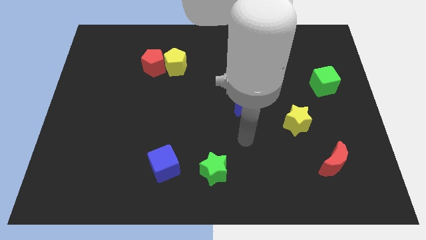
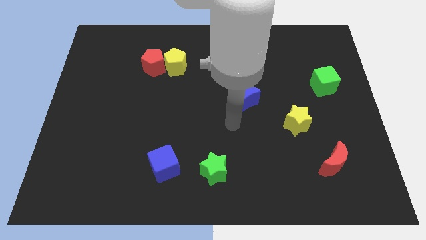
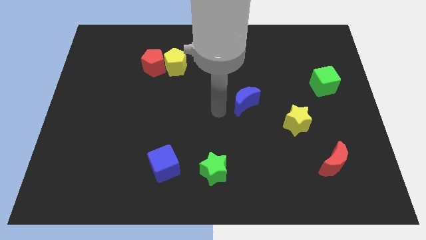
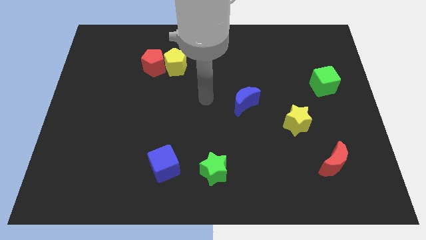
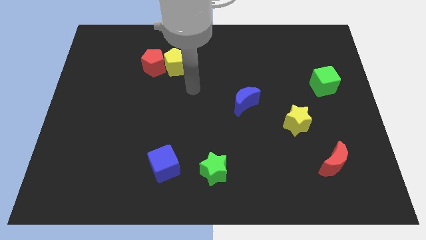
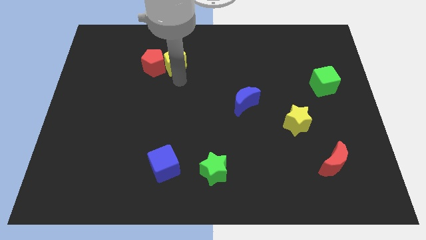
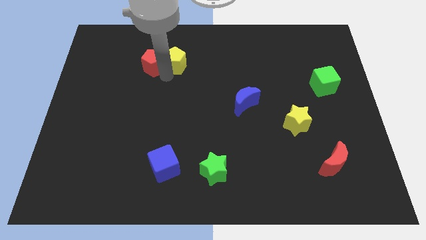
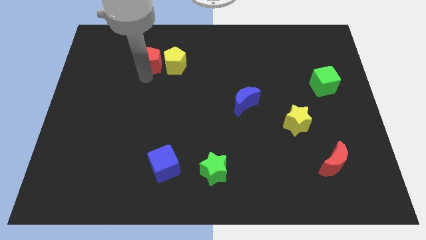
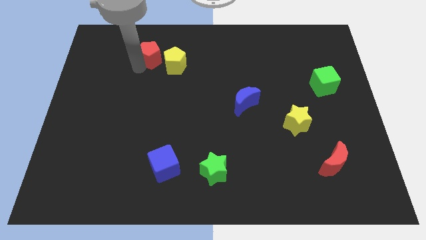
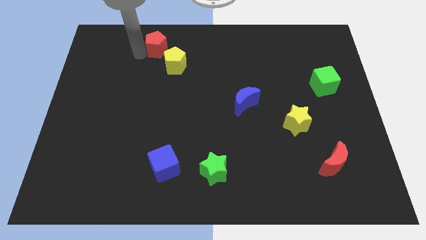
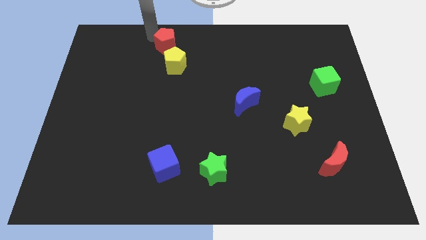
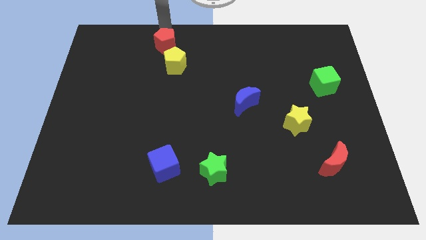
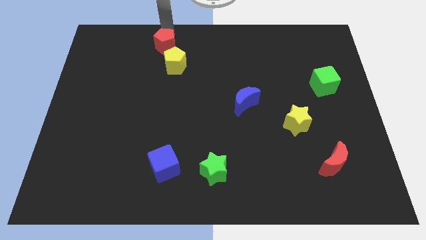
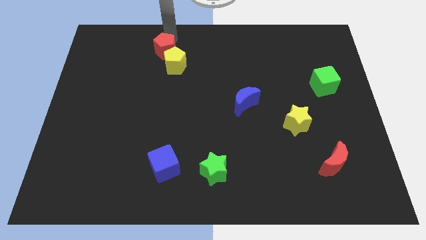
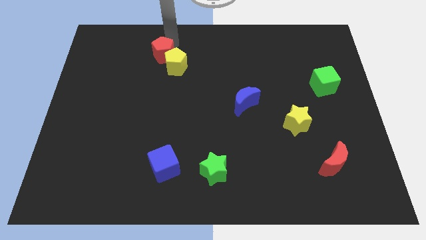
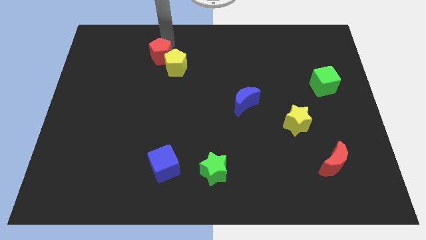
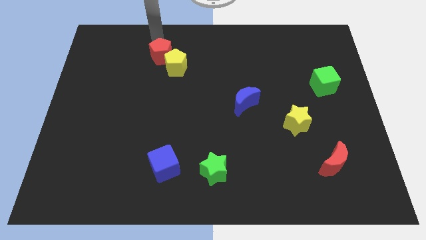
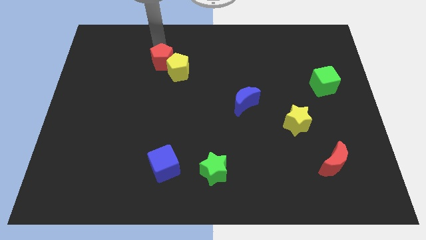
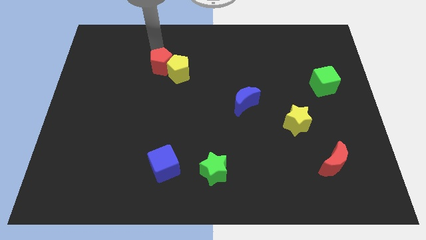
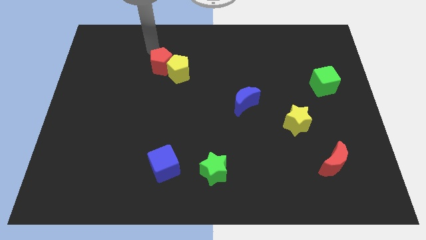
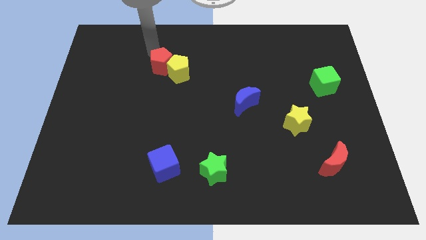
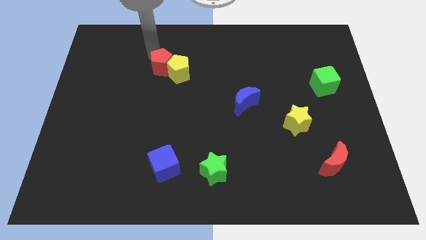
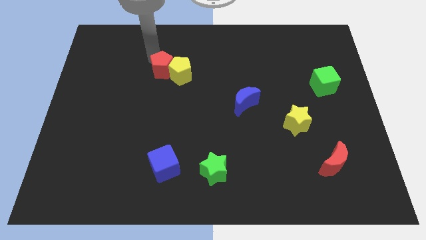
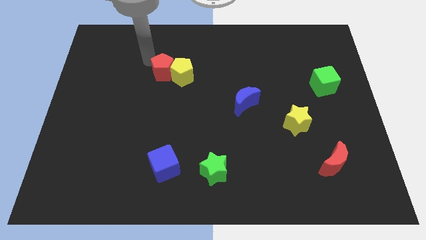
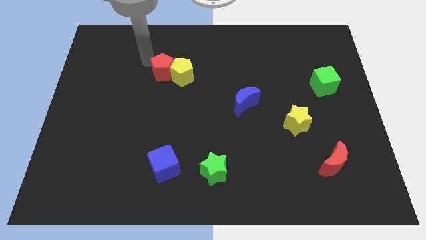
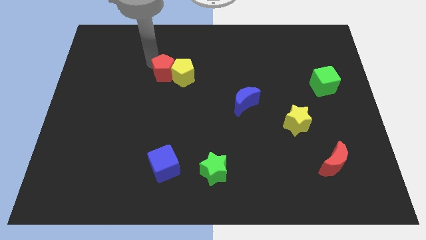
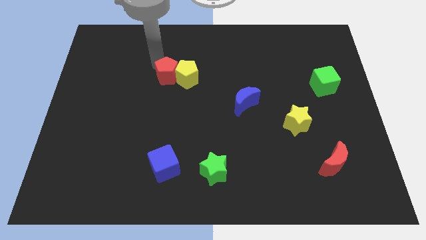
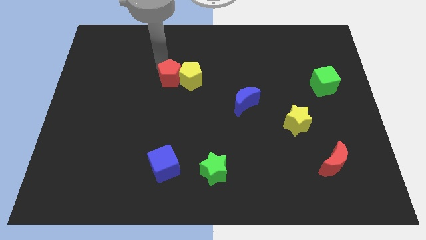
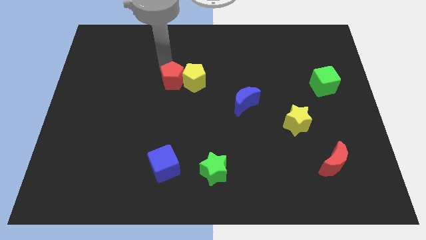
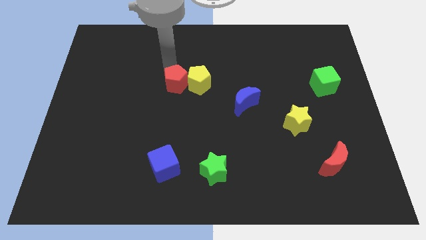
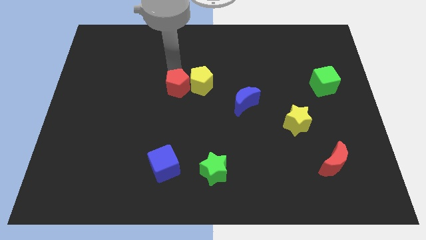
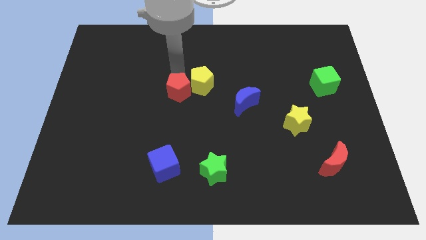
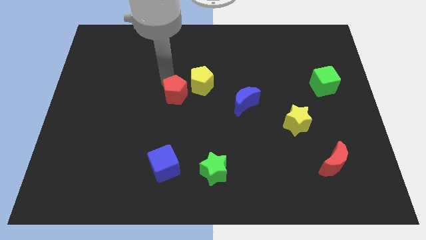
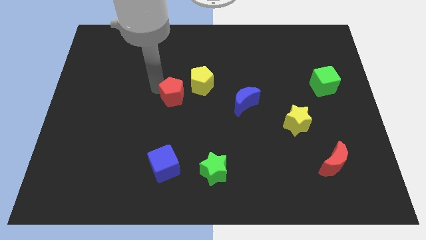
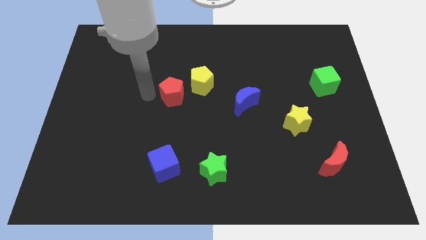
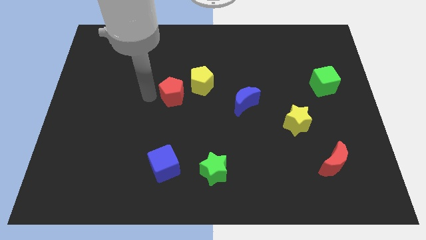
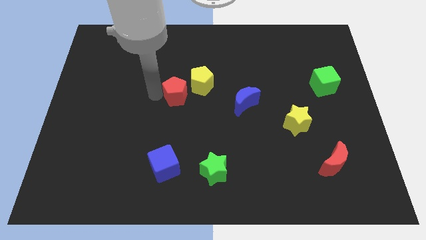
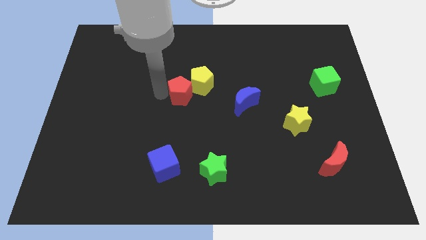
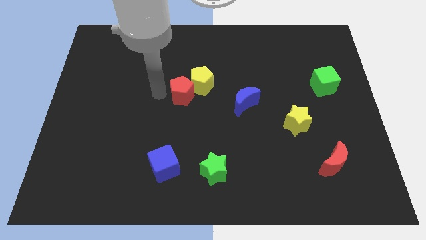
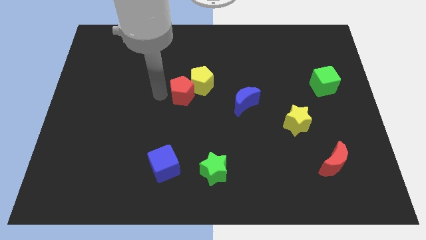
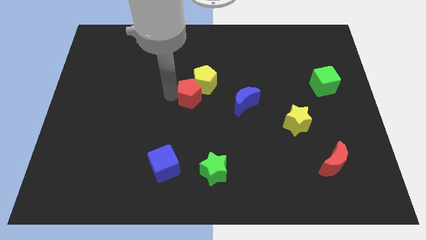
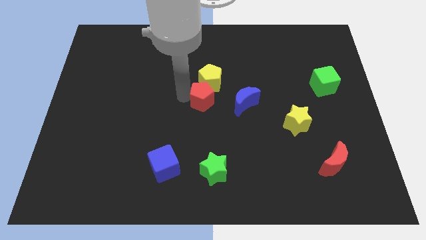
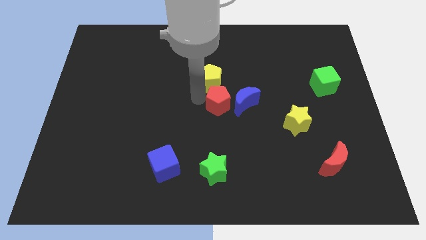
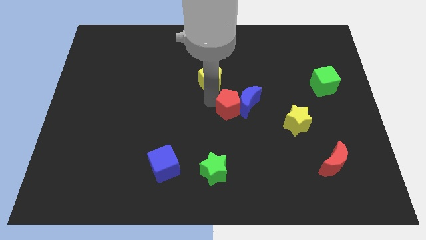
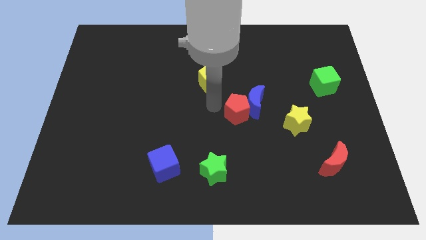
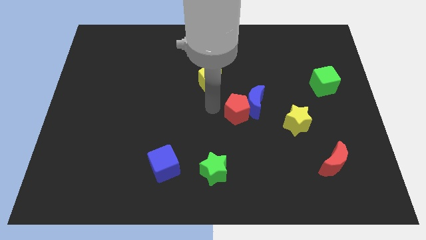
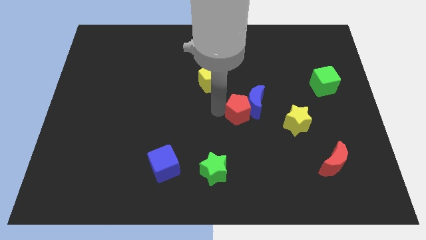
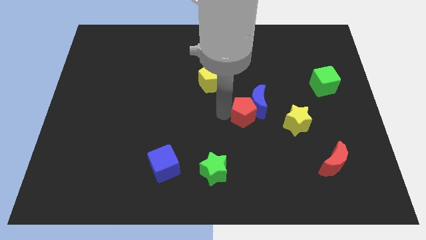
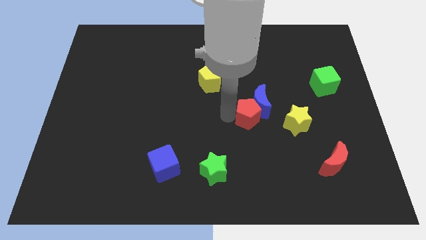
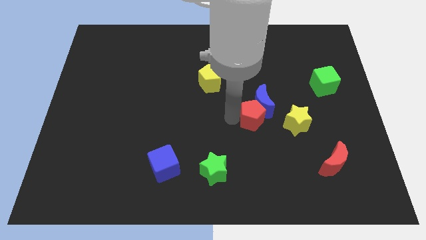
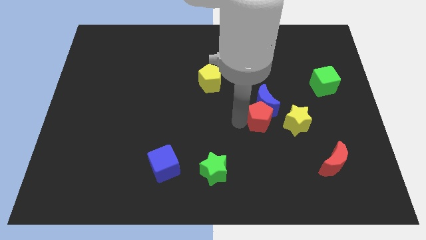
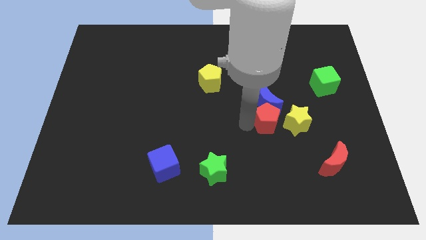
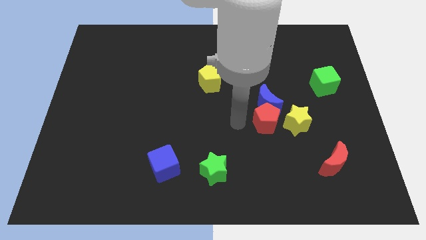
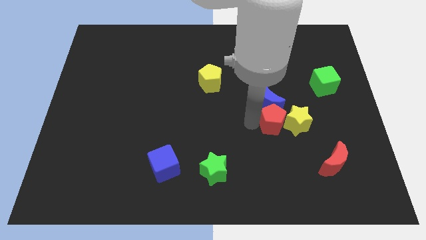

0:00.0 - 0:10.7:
push the red pentagon towards the yellow star
